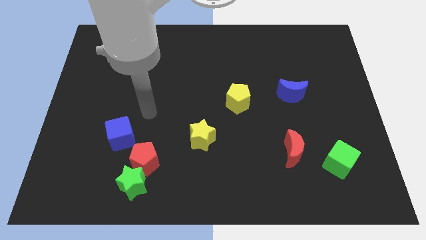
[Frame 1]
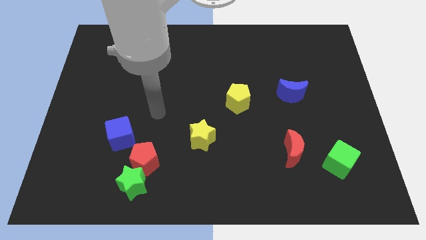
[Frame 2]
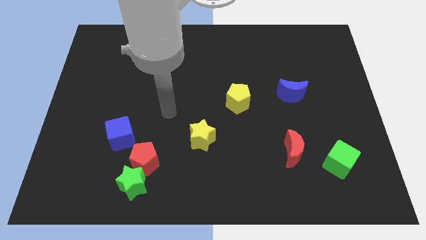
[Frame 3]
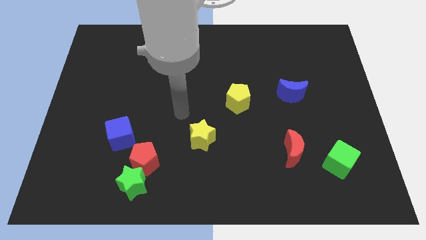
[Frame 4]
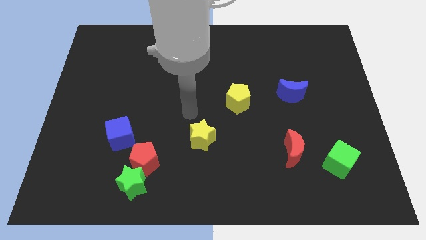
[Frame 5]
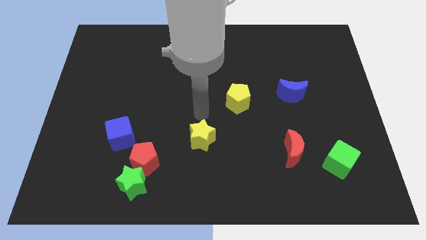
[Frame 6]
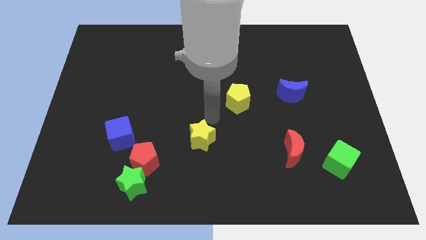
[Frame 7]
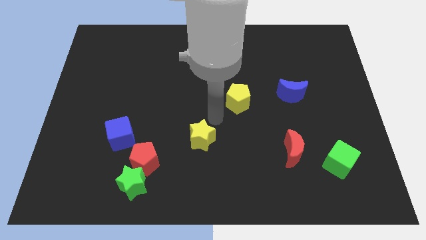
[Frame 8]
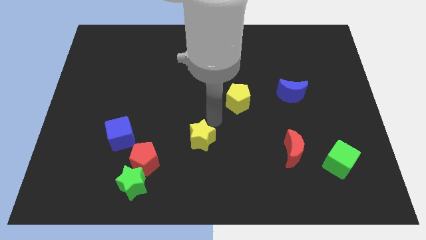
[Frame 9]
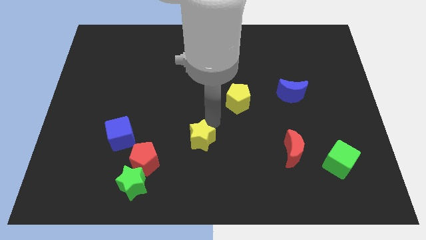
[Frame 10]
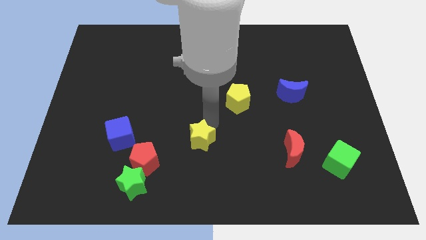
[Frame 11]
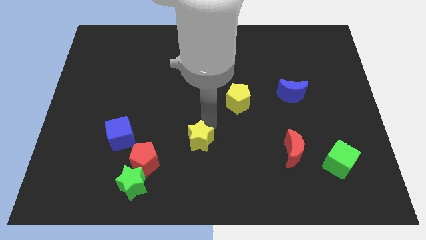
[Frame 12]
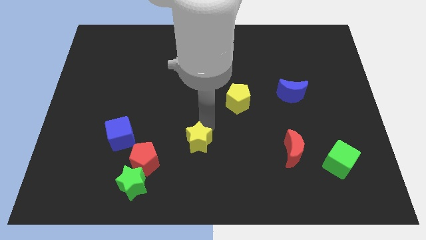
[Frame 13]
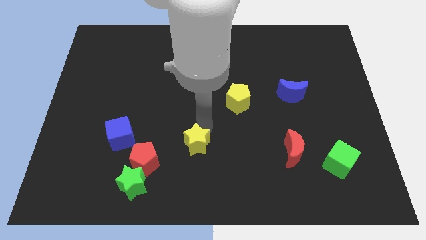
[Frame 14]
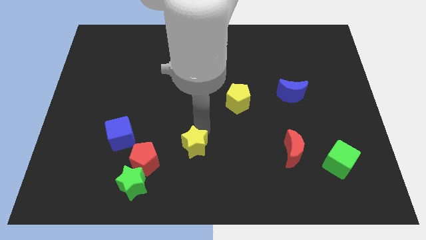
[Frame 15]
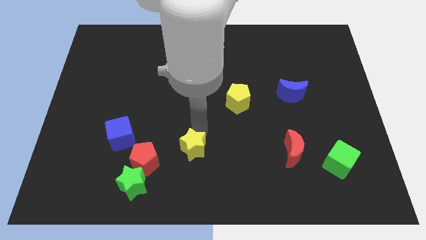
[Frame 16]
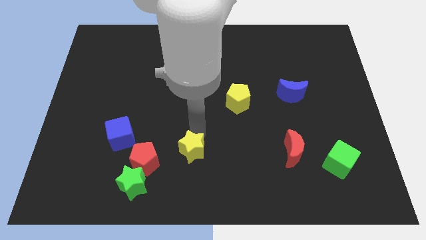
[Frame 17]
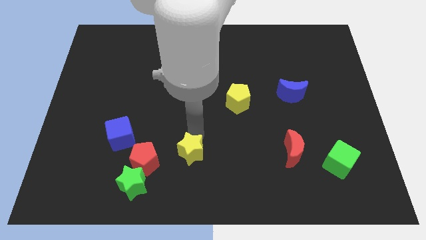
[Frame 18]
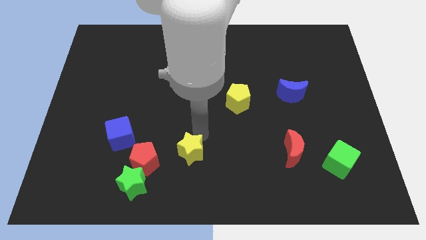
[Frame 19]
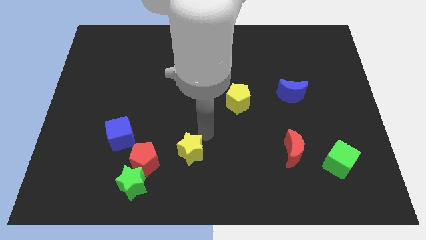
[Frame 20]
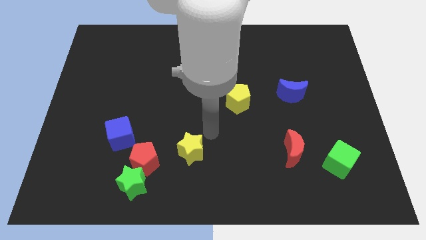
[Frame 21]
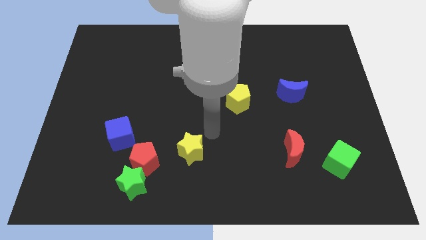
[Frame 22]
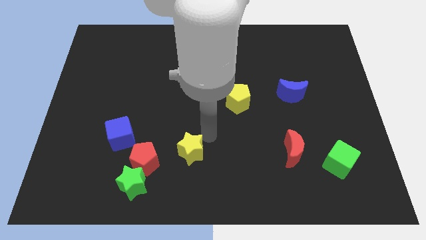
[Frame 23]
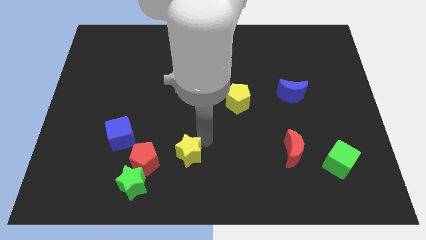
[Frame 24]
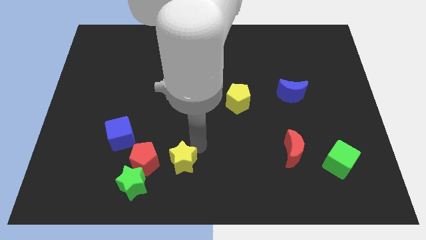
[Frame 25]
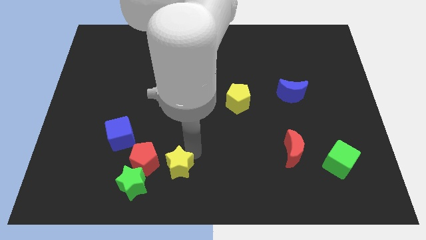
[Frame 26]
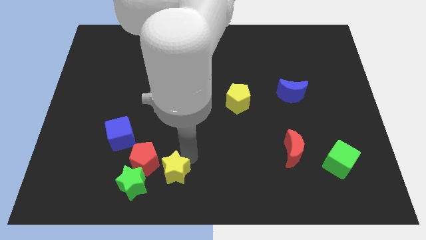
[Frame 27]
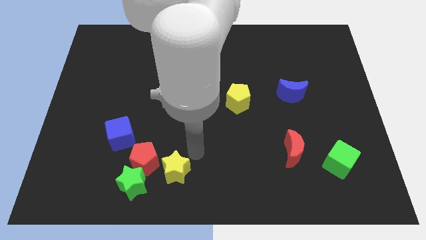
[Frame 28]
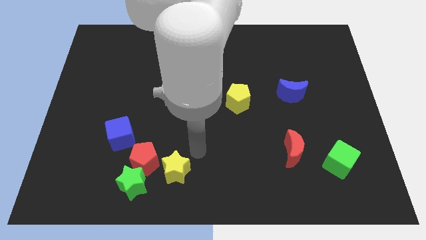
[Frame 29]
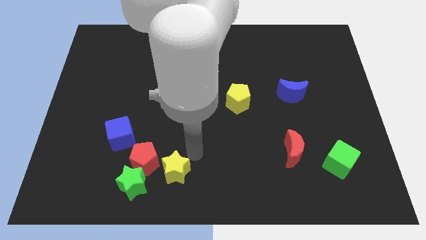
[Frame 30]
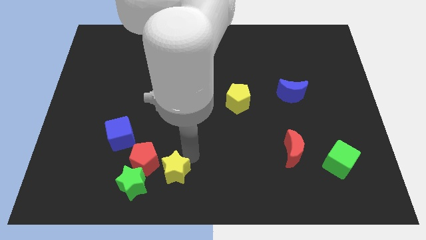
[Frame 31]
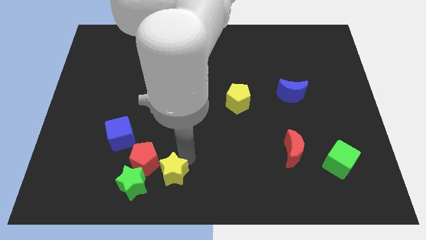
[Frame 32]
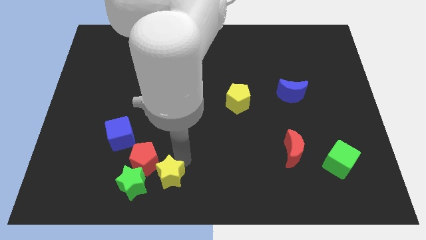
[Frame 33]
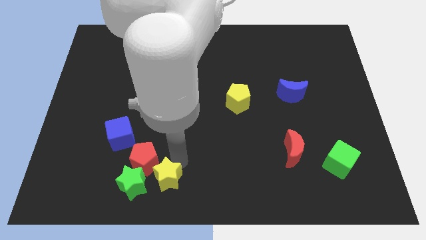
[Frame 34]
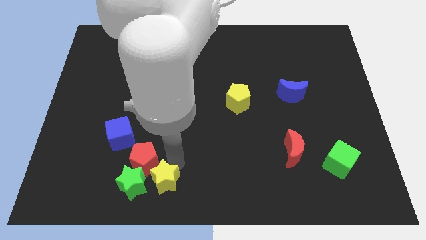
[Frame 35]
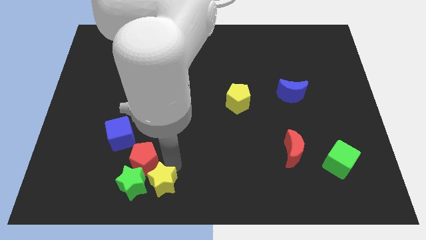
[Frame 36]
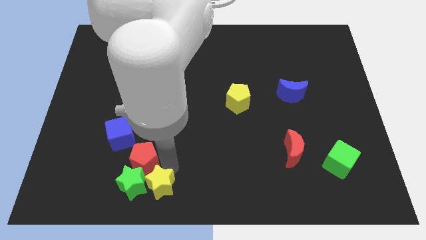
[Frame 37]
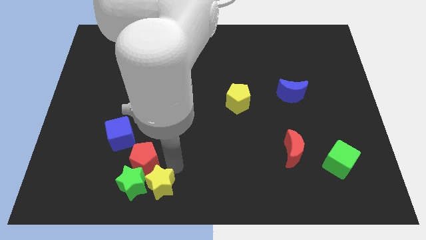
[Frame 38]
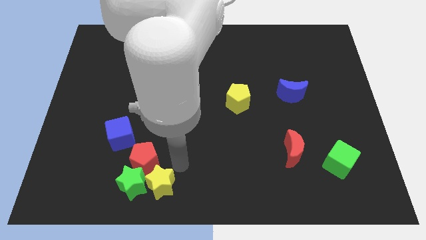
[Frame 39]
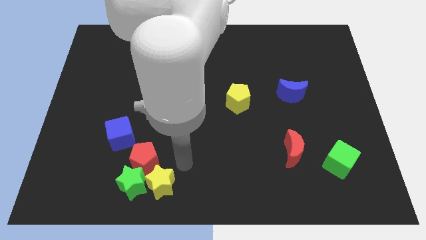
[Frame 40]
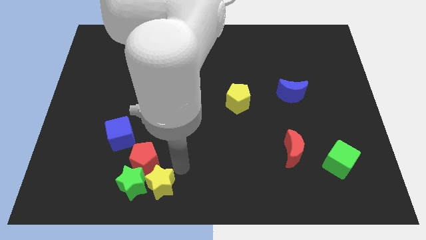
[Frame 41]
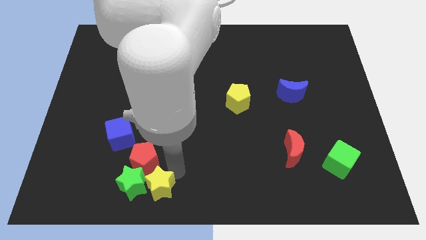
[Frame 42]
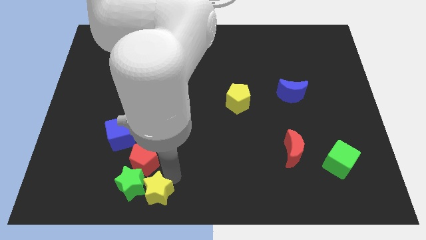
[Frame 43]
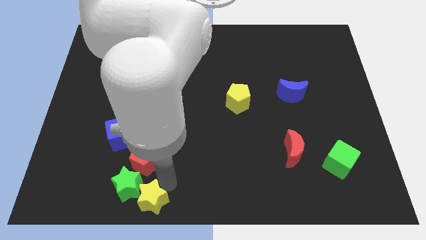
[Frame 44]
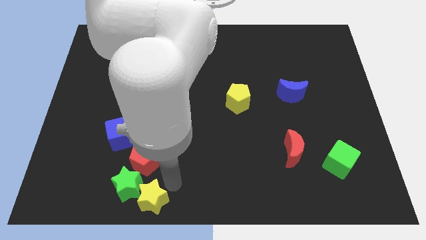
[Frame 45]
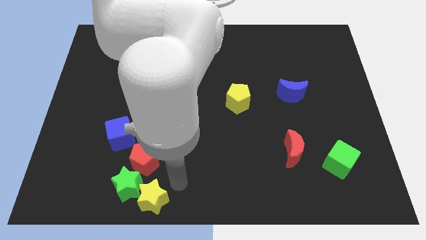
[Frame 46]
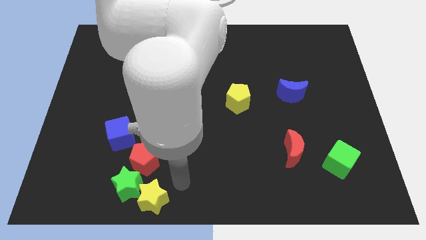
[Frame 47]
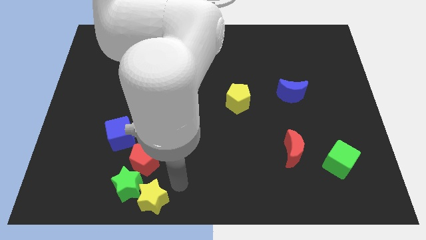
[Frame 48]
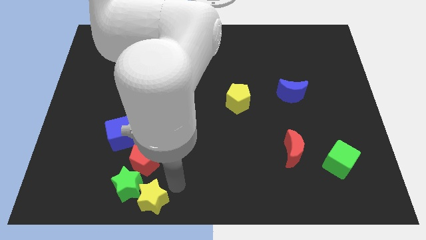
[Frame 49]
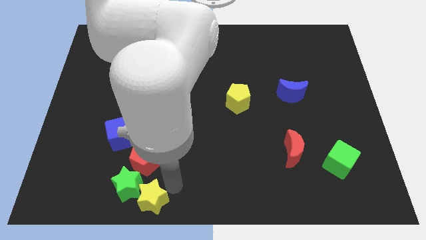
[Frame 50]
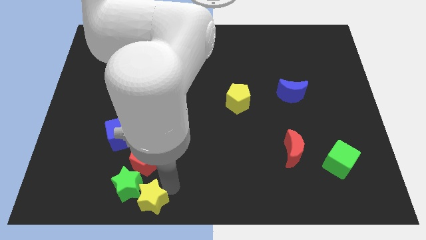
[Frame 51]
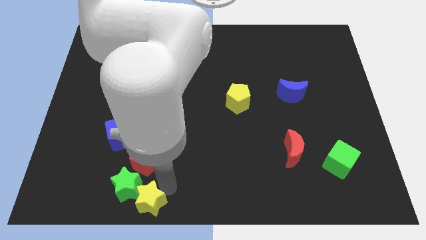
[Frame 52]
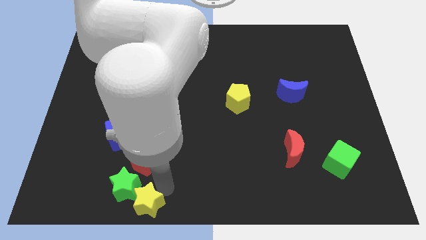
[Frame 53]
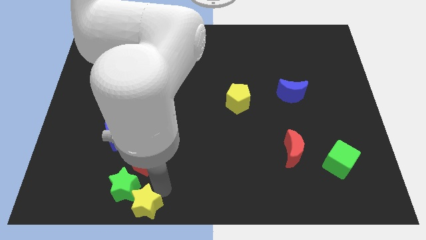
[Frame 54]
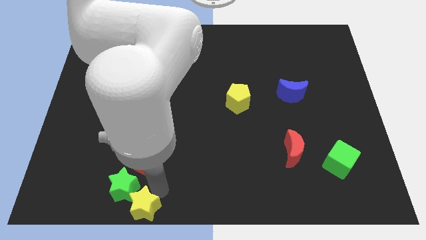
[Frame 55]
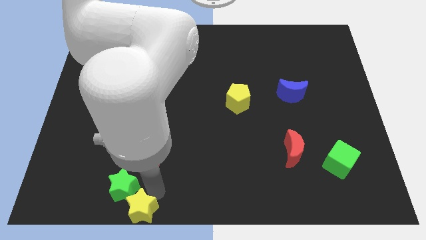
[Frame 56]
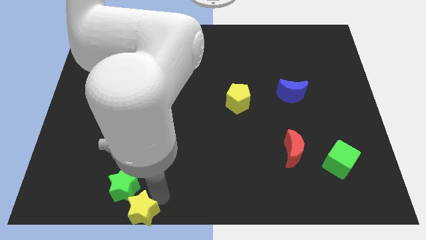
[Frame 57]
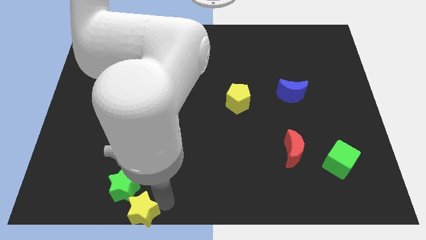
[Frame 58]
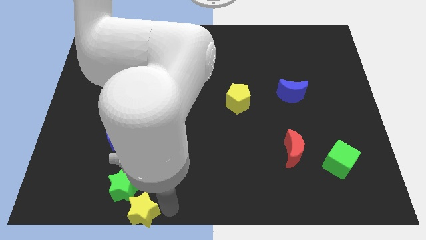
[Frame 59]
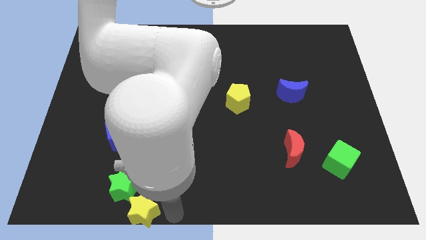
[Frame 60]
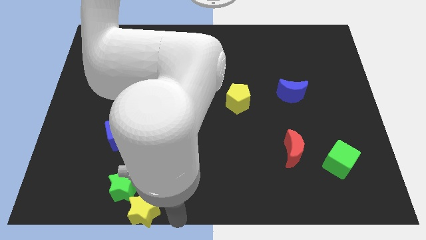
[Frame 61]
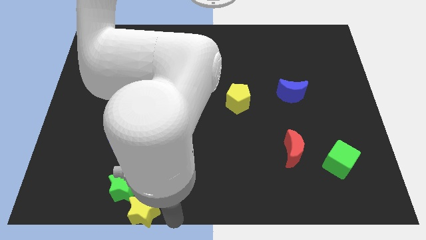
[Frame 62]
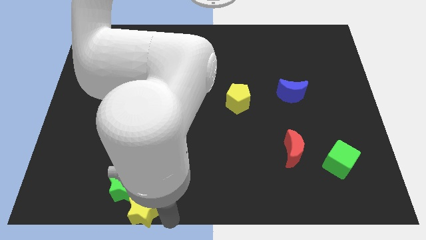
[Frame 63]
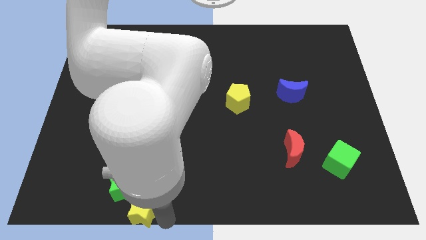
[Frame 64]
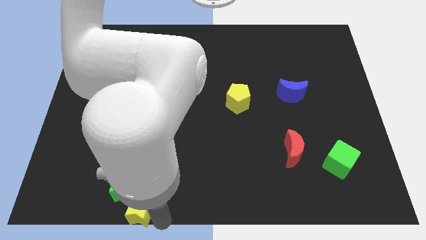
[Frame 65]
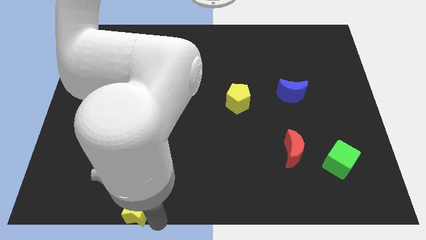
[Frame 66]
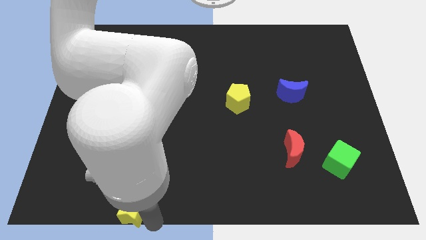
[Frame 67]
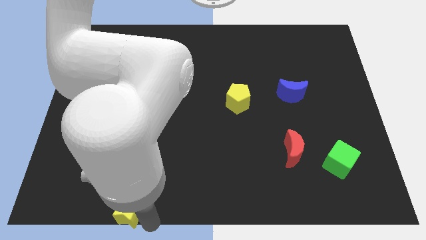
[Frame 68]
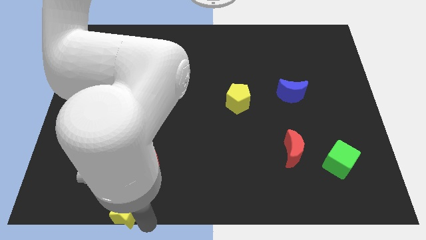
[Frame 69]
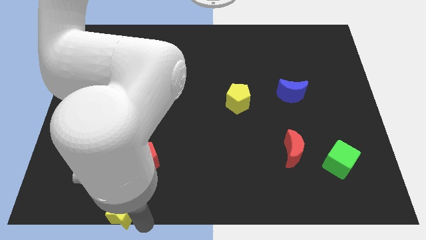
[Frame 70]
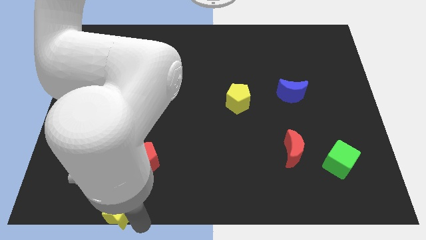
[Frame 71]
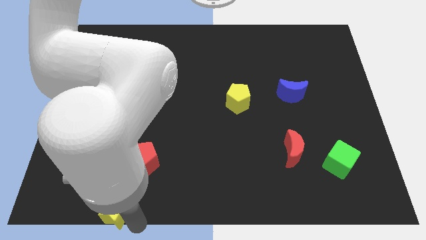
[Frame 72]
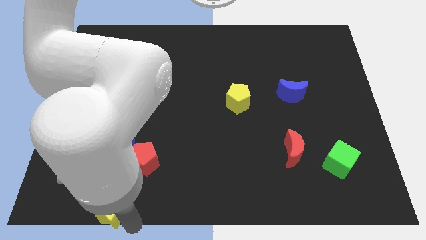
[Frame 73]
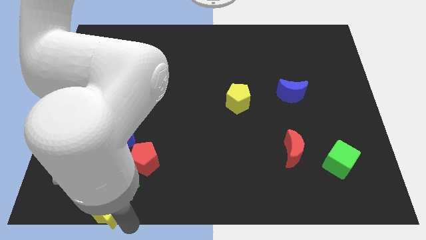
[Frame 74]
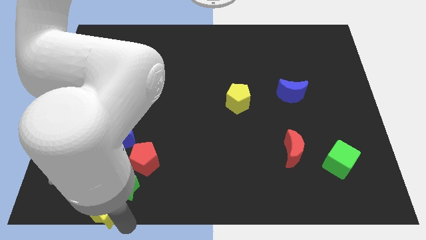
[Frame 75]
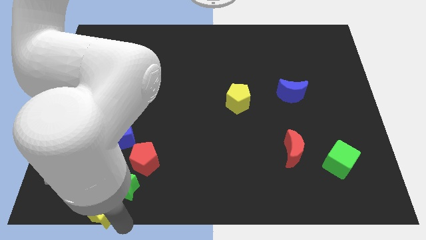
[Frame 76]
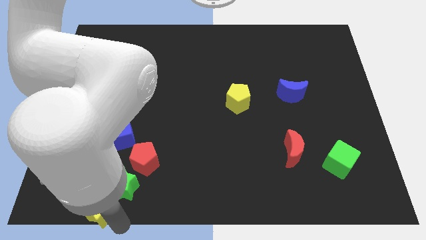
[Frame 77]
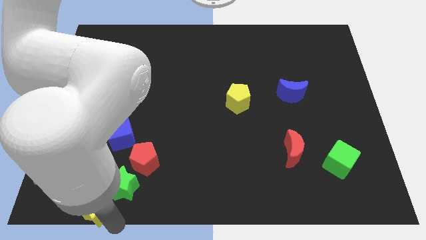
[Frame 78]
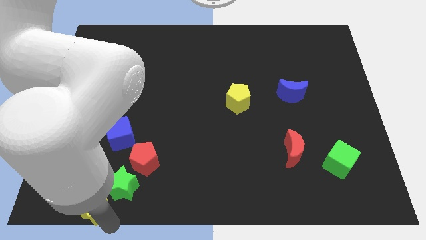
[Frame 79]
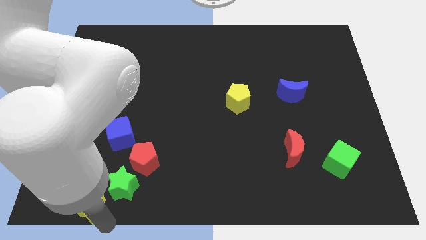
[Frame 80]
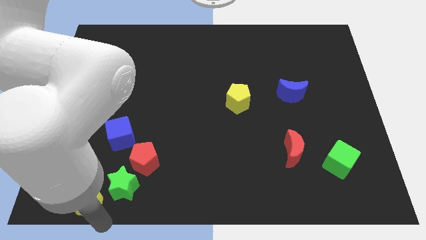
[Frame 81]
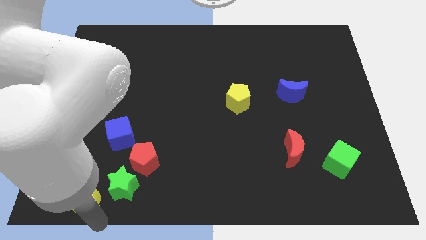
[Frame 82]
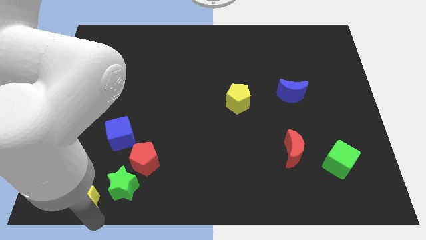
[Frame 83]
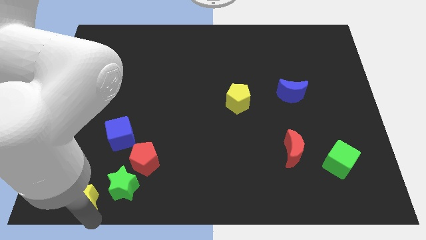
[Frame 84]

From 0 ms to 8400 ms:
push the yellow star to the bottom left
